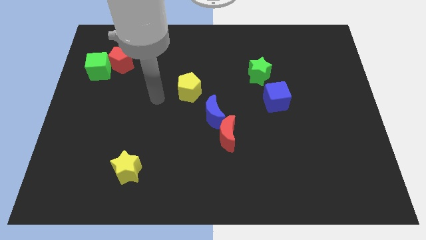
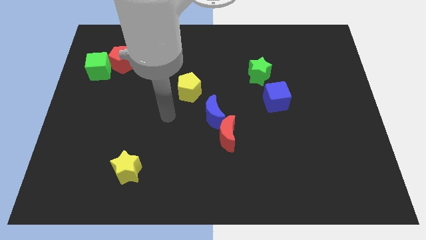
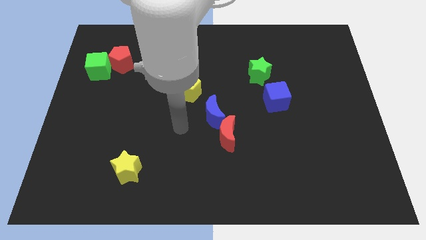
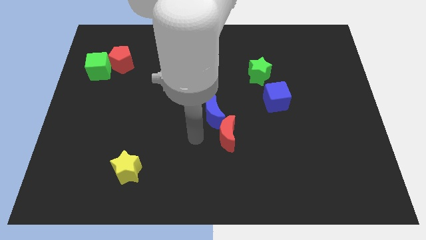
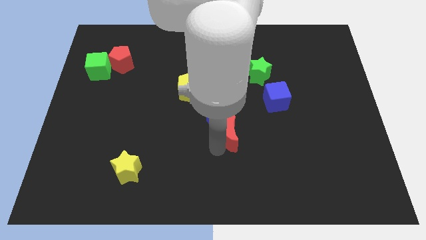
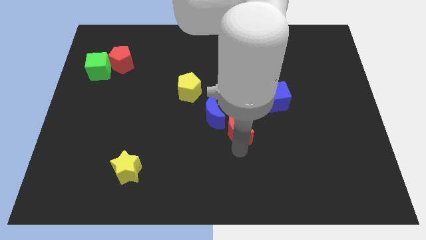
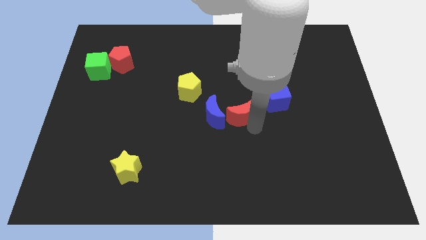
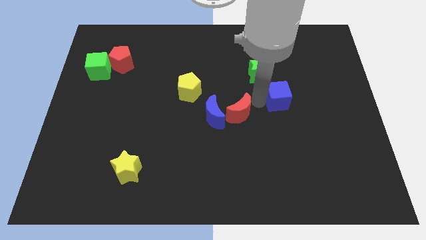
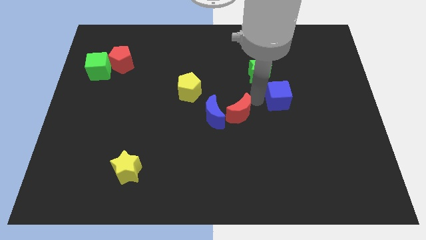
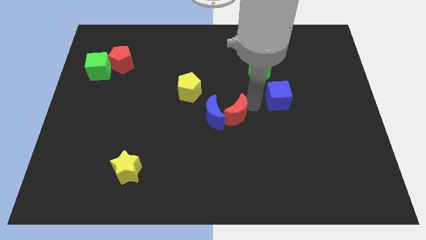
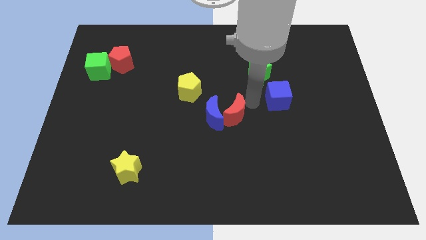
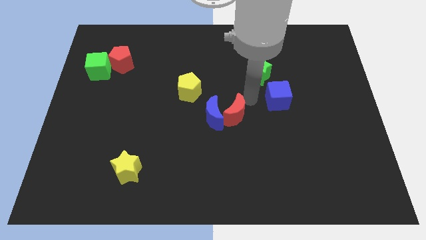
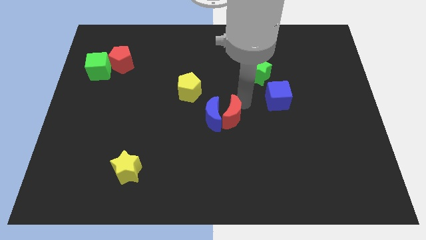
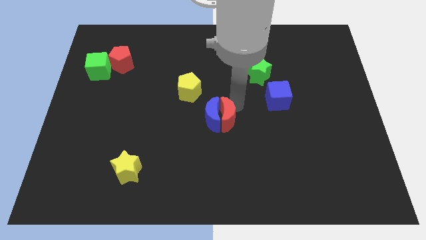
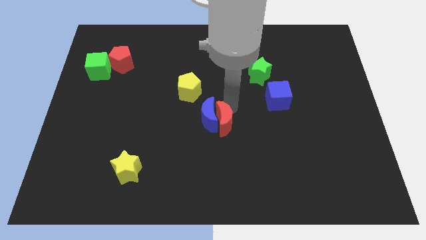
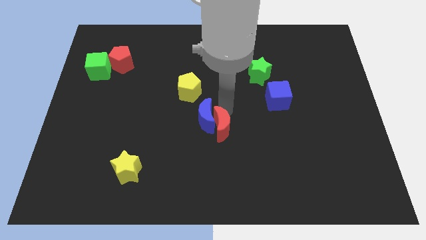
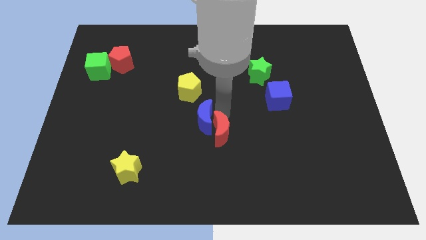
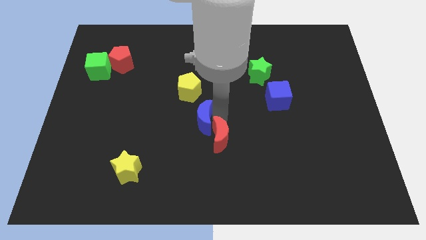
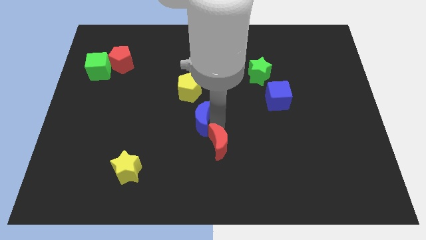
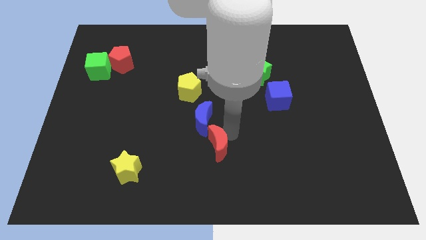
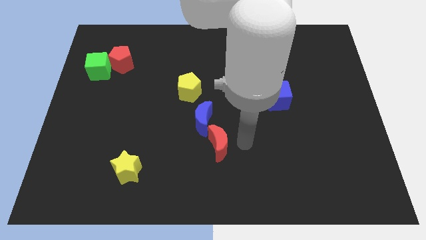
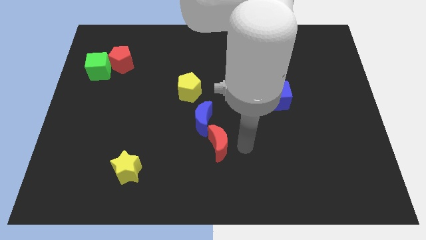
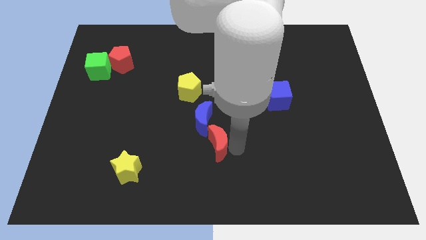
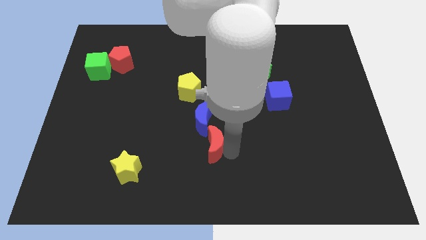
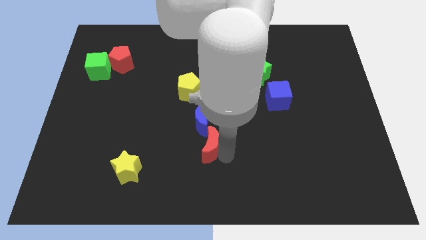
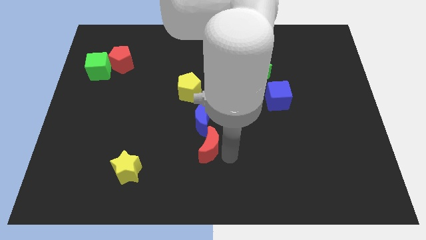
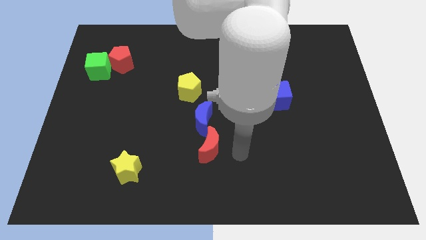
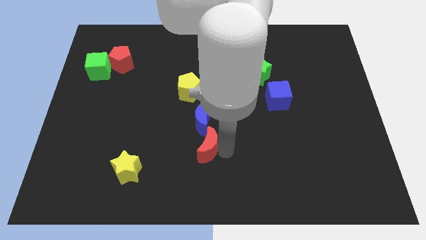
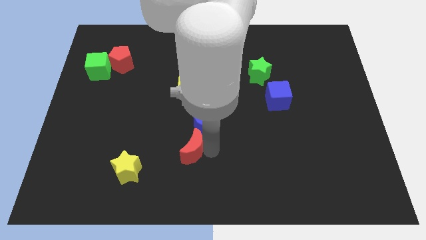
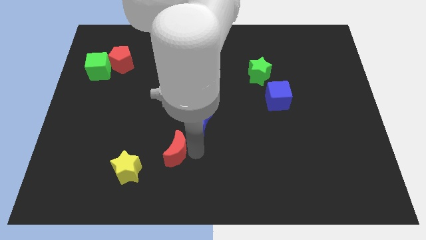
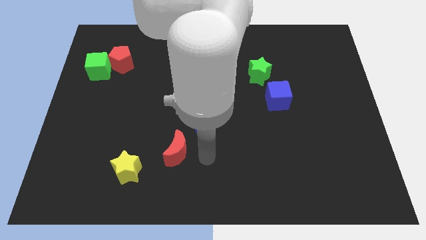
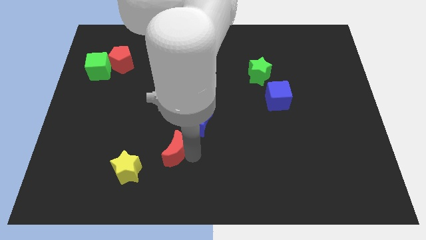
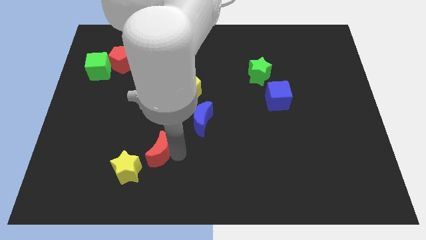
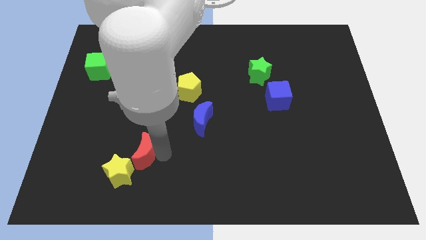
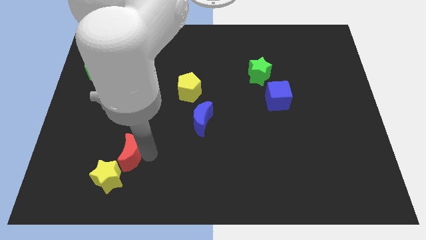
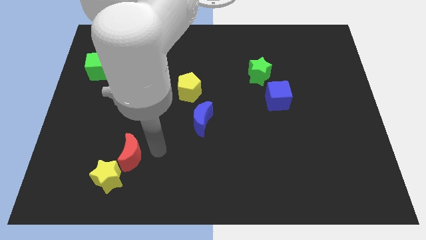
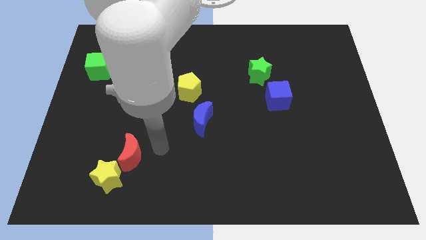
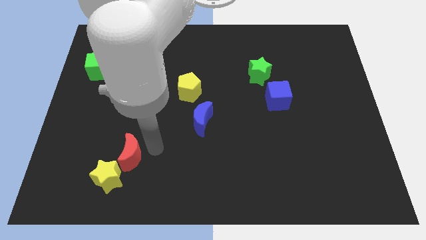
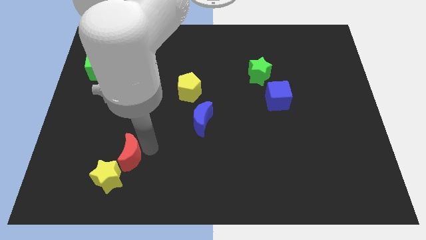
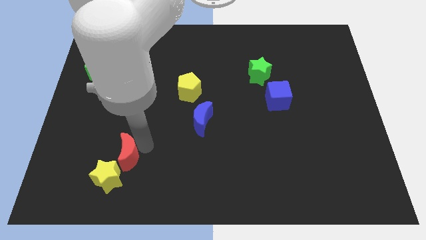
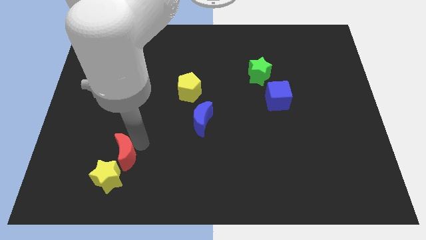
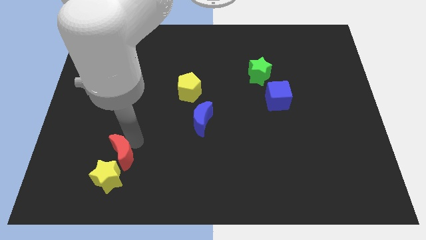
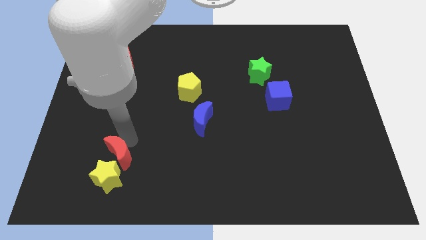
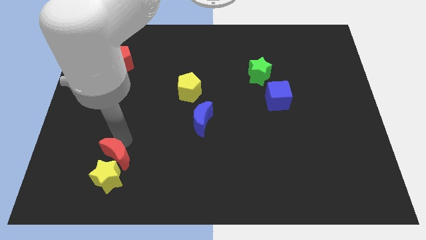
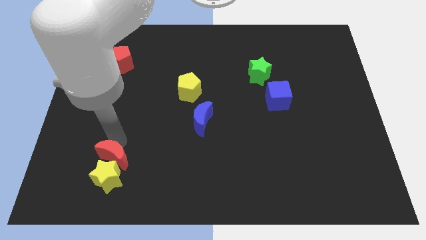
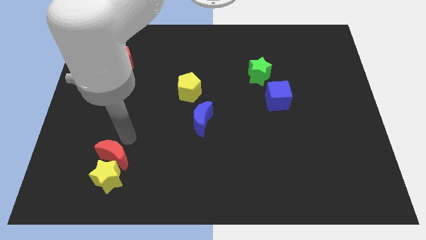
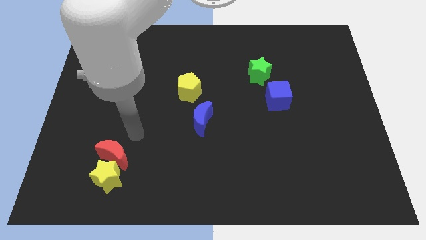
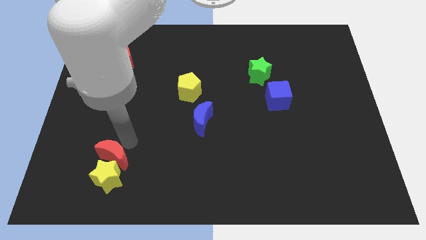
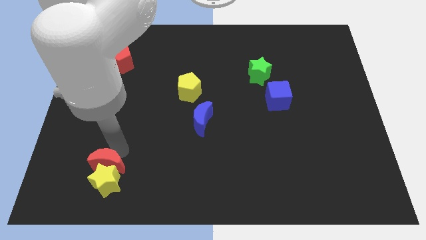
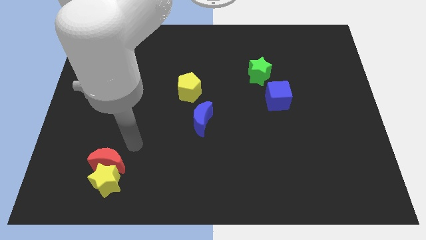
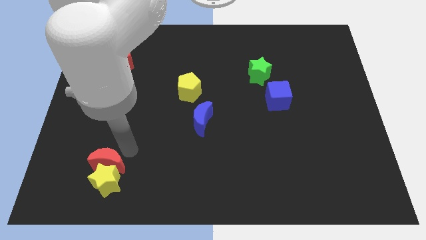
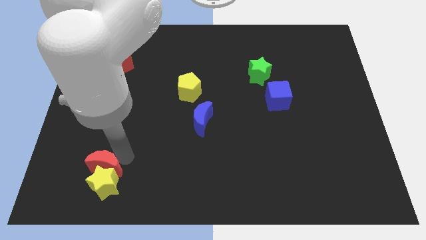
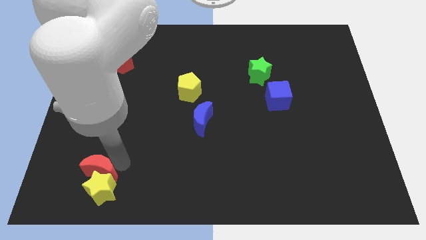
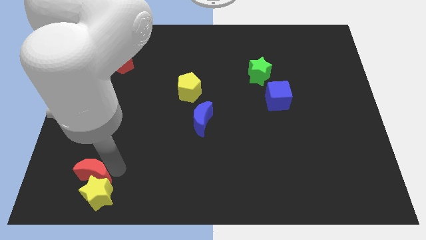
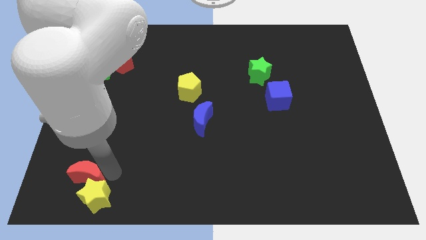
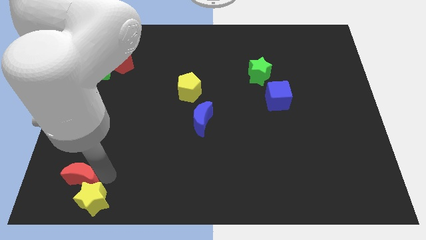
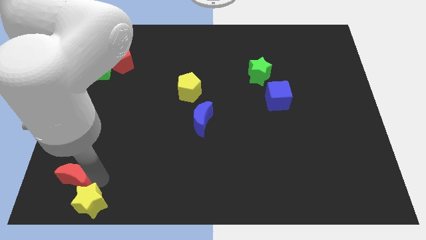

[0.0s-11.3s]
move the red moon to the lower left corner
